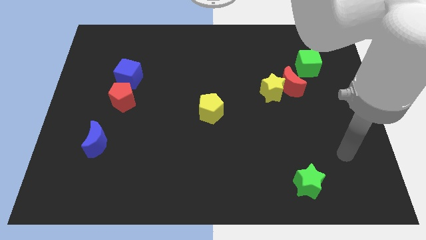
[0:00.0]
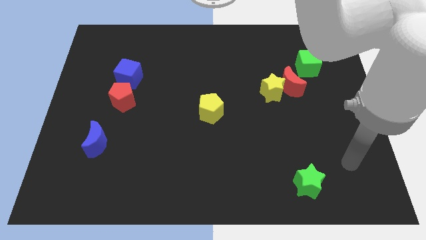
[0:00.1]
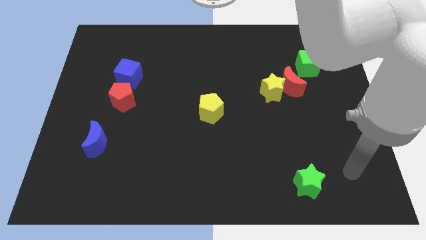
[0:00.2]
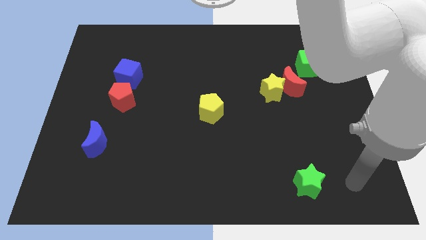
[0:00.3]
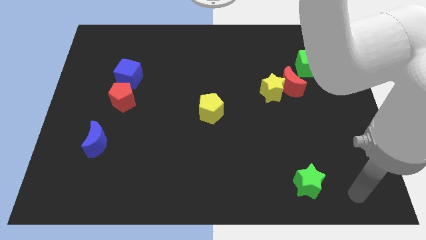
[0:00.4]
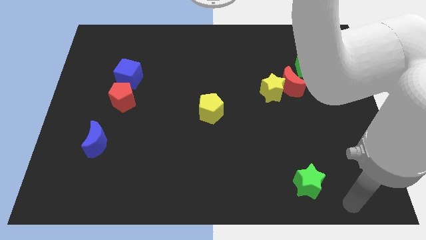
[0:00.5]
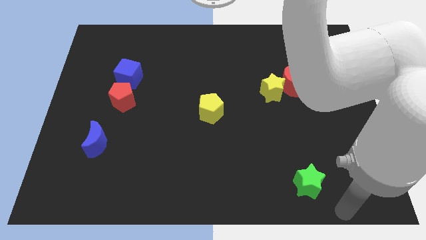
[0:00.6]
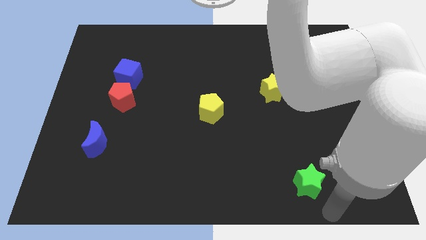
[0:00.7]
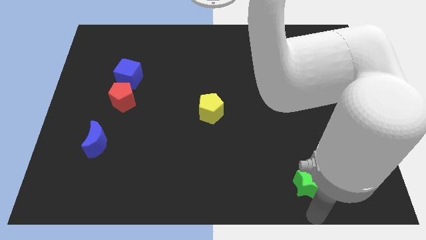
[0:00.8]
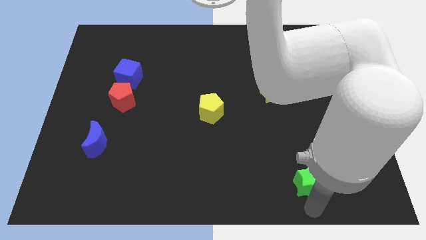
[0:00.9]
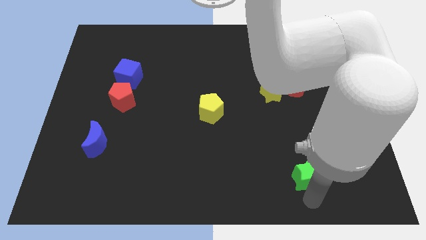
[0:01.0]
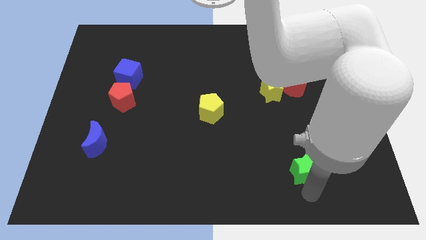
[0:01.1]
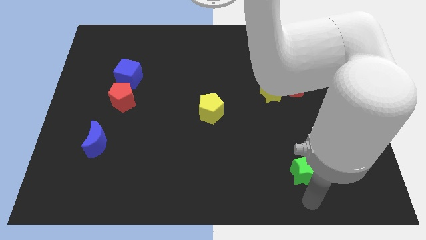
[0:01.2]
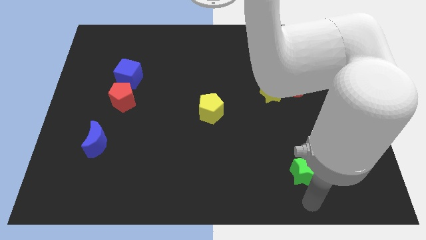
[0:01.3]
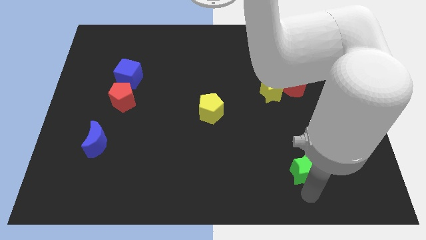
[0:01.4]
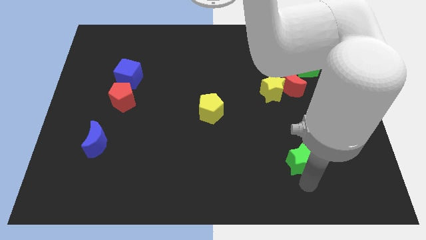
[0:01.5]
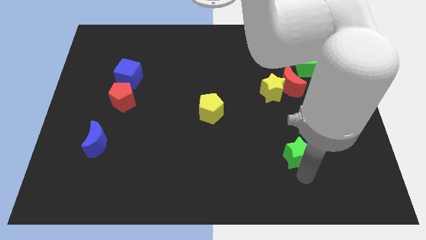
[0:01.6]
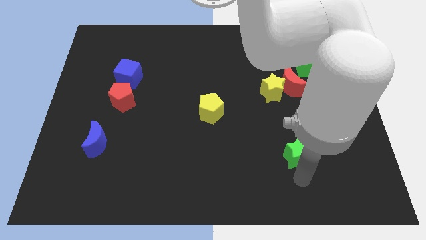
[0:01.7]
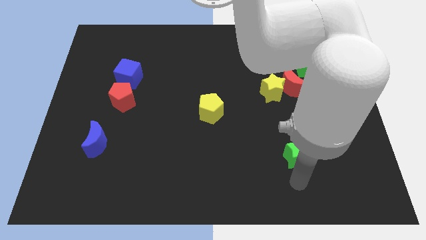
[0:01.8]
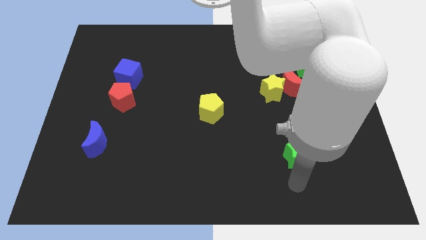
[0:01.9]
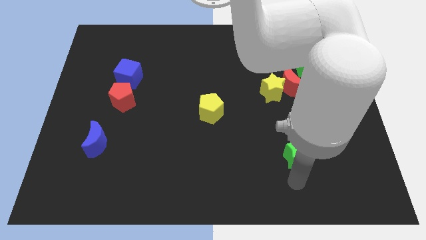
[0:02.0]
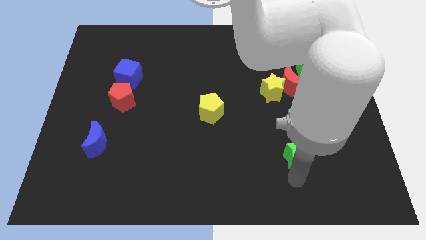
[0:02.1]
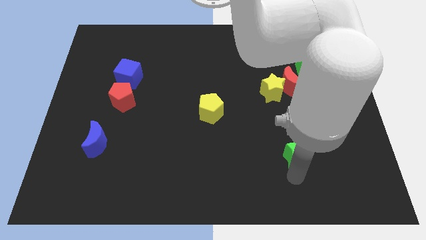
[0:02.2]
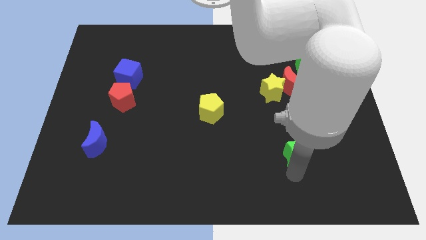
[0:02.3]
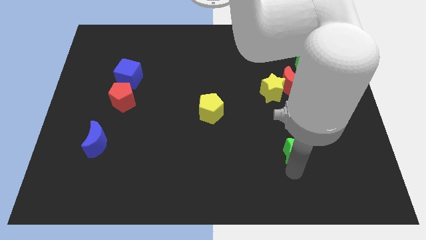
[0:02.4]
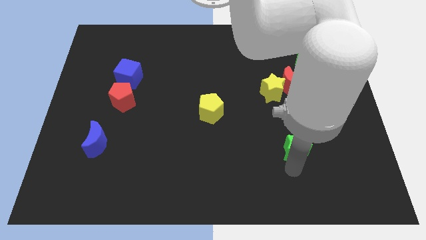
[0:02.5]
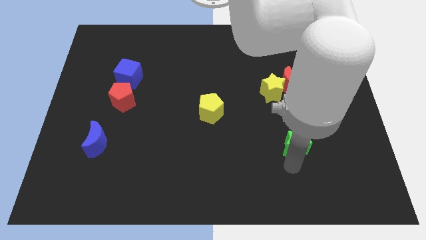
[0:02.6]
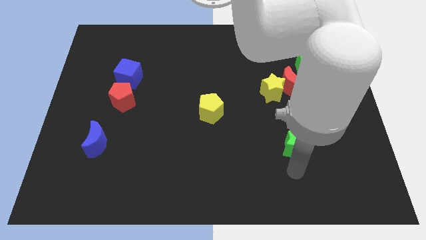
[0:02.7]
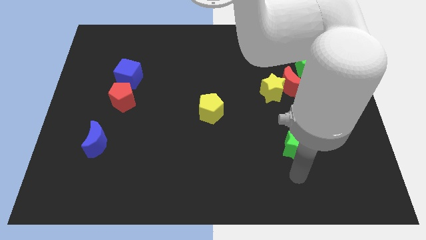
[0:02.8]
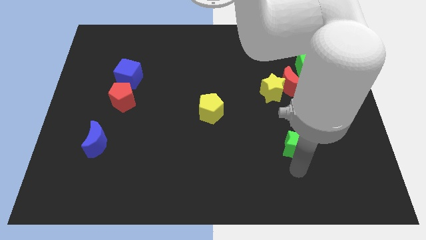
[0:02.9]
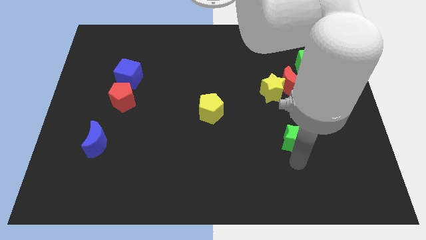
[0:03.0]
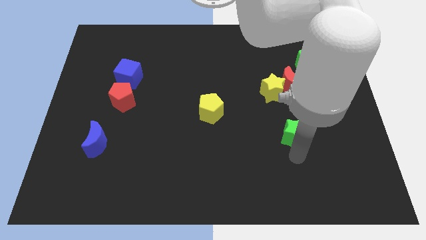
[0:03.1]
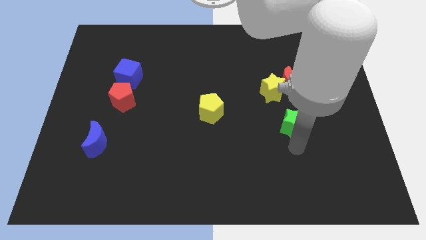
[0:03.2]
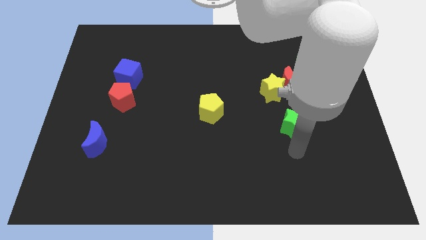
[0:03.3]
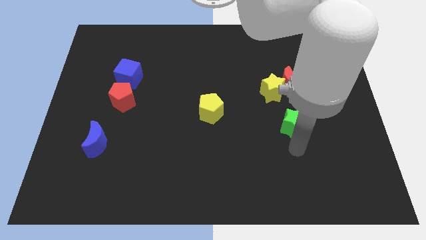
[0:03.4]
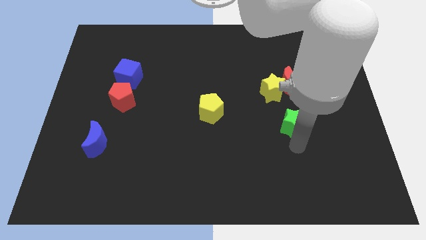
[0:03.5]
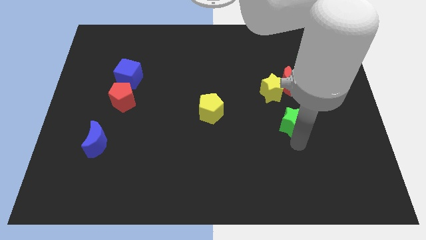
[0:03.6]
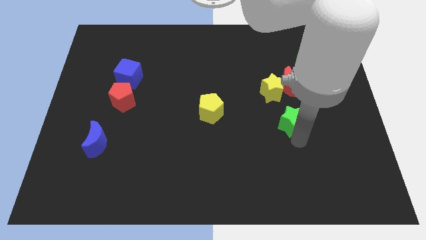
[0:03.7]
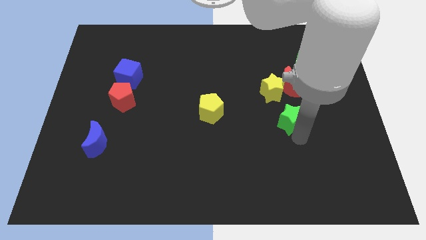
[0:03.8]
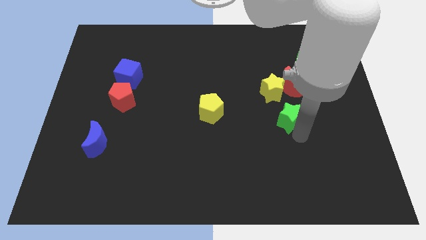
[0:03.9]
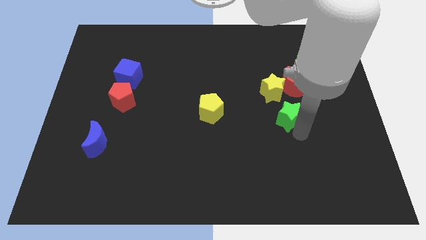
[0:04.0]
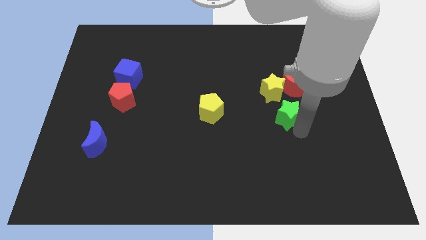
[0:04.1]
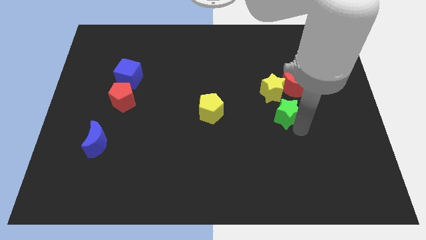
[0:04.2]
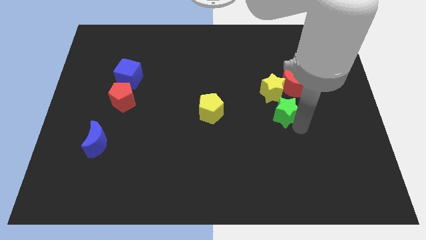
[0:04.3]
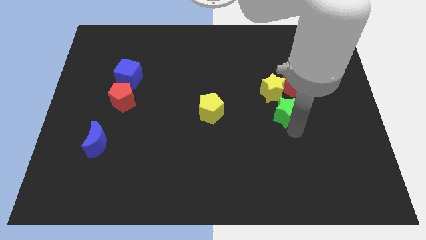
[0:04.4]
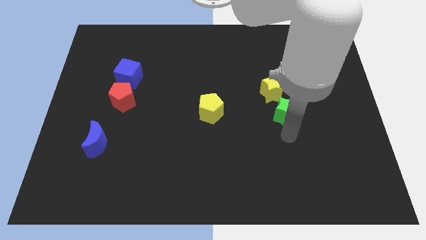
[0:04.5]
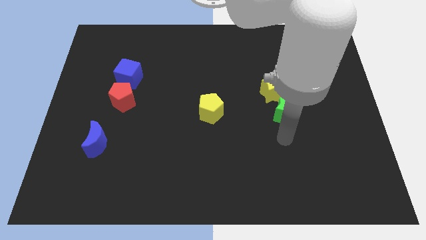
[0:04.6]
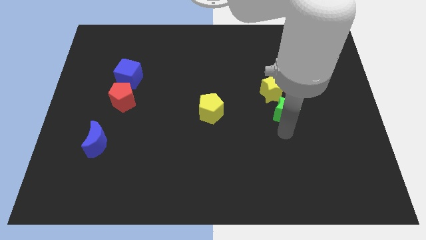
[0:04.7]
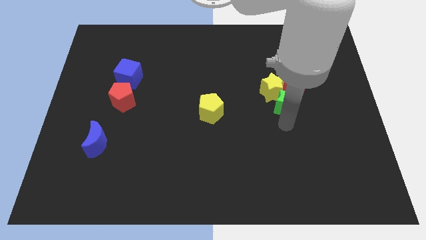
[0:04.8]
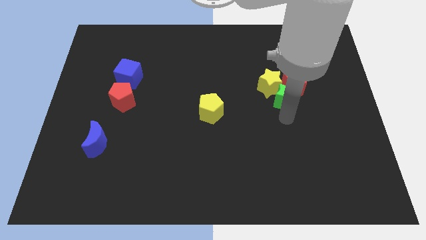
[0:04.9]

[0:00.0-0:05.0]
move the green star close to the red moon

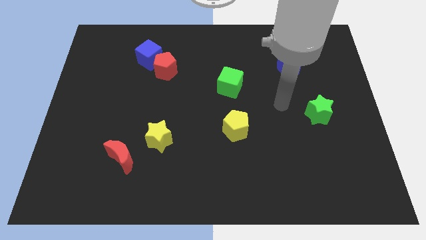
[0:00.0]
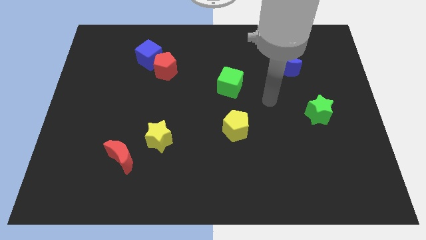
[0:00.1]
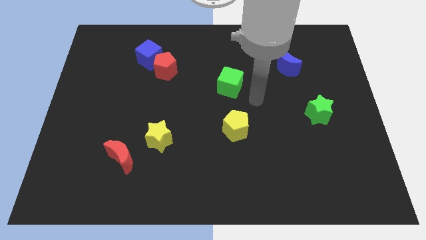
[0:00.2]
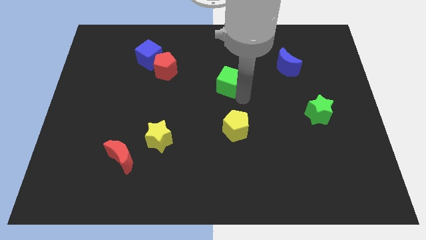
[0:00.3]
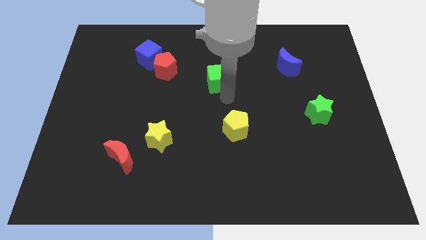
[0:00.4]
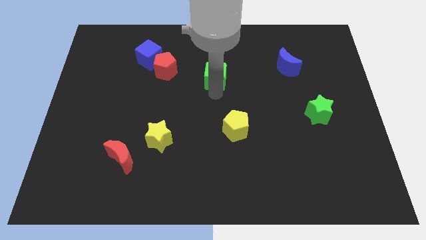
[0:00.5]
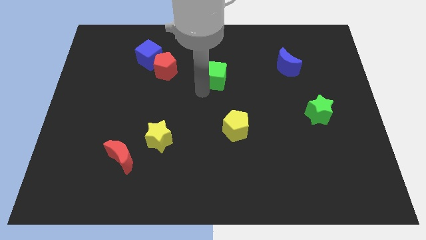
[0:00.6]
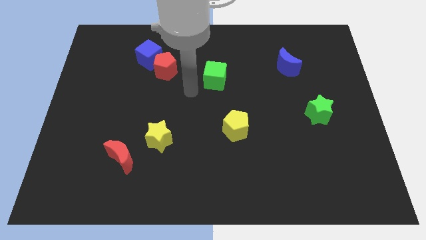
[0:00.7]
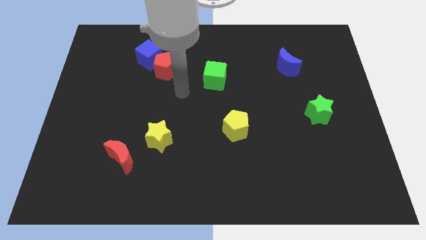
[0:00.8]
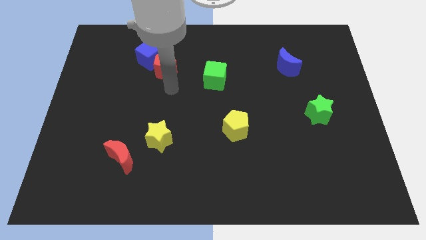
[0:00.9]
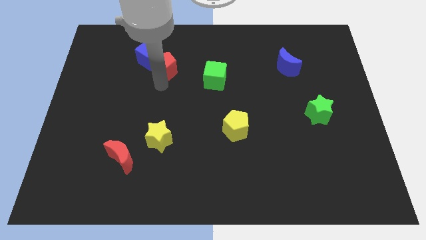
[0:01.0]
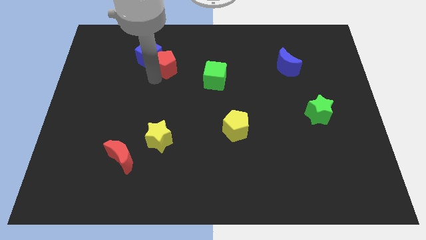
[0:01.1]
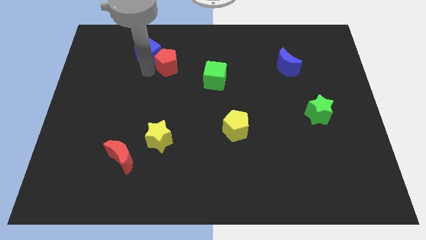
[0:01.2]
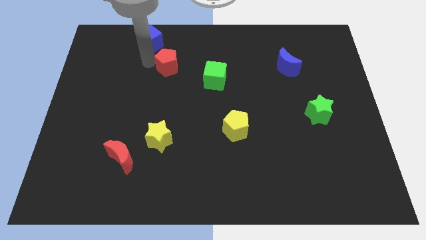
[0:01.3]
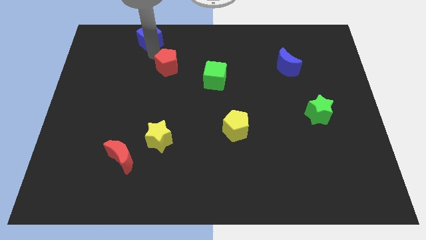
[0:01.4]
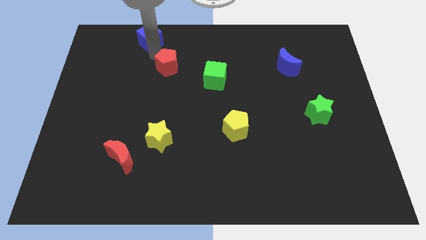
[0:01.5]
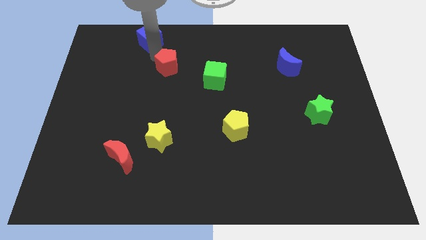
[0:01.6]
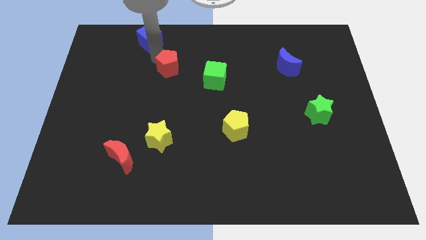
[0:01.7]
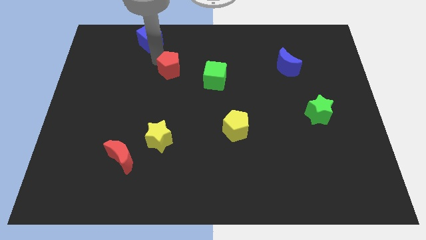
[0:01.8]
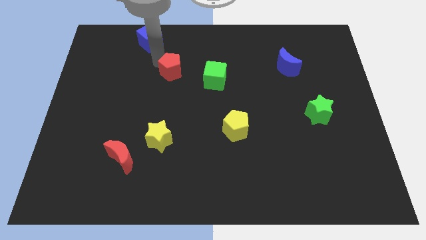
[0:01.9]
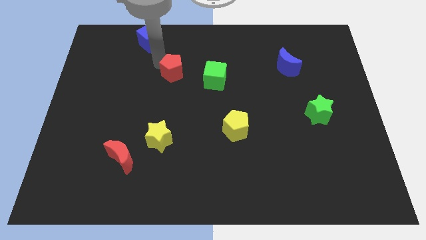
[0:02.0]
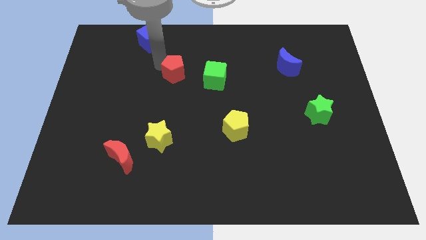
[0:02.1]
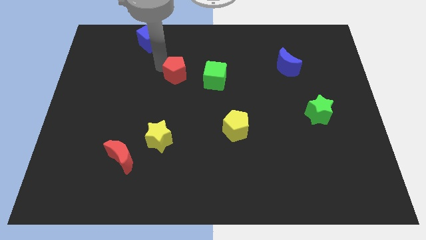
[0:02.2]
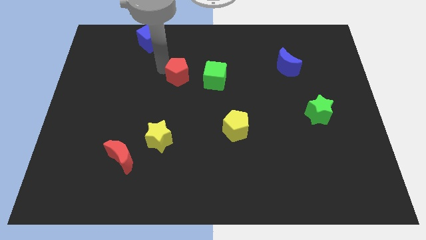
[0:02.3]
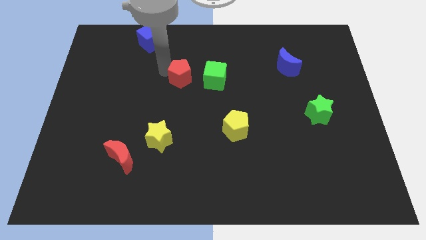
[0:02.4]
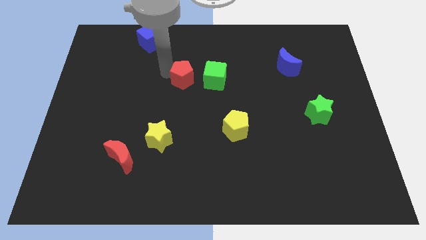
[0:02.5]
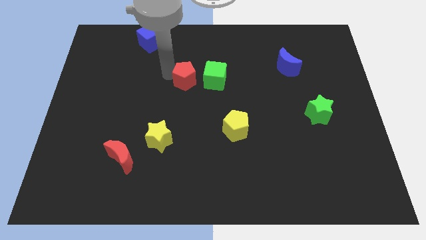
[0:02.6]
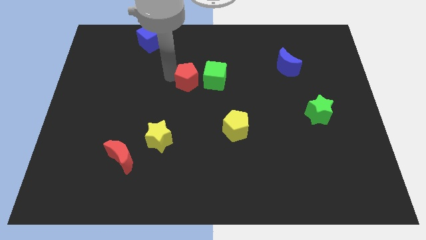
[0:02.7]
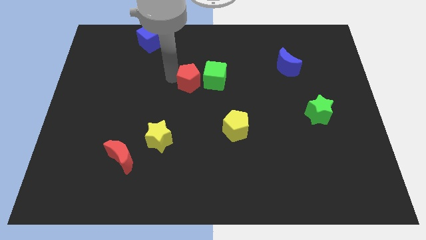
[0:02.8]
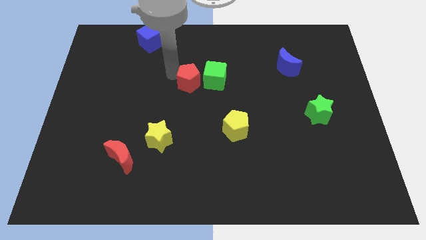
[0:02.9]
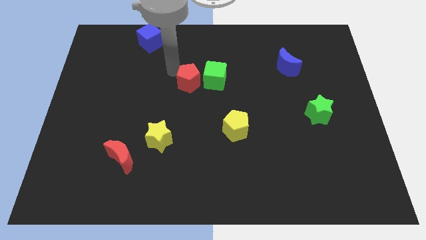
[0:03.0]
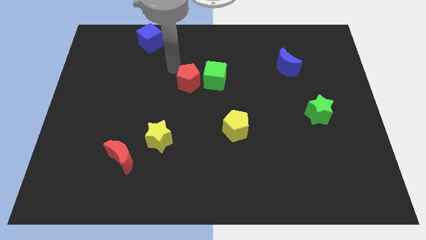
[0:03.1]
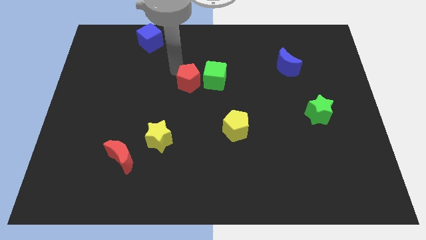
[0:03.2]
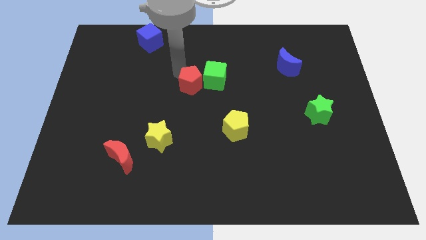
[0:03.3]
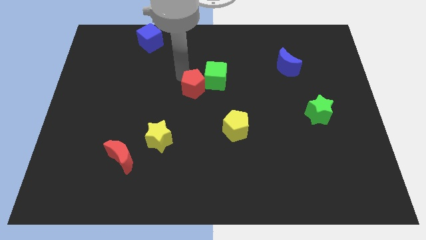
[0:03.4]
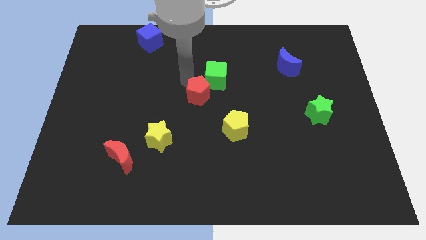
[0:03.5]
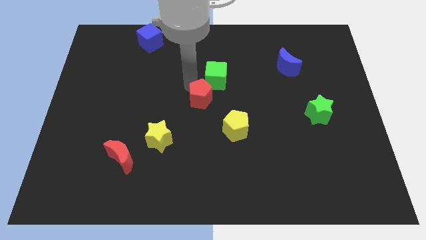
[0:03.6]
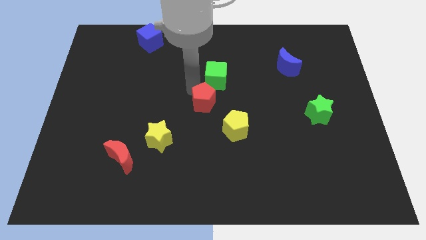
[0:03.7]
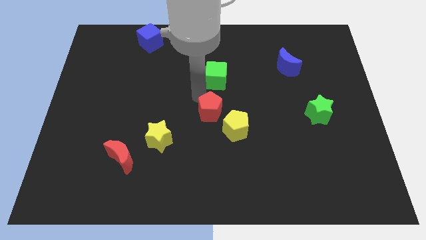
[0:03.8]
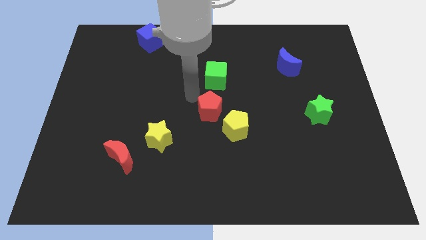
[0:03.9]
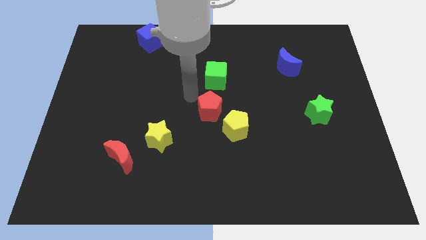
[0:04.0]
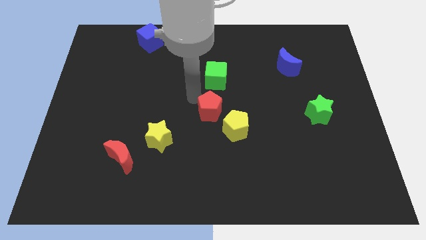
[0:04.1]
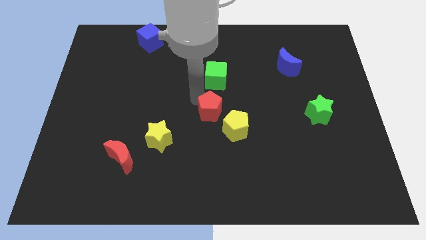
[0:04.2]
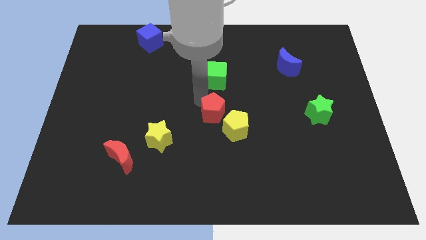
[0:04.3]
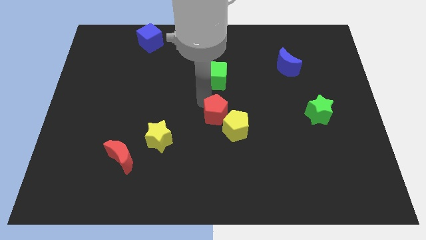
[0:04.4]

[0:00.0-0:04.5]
move the red pentagon towards the yellow pentagon
